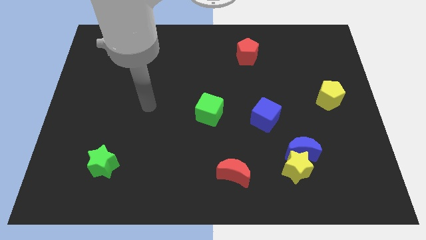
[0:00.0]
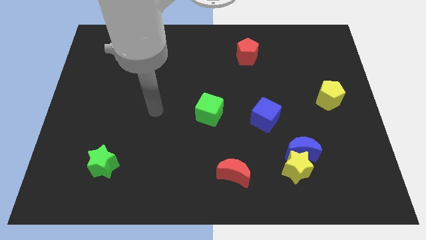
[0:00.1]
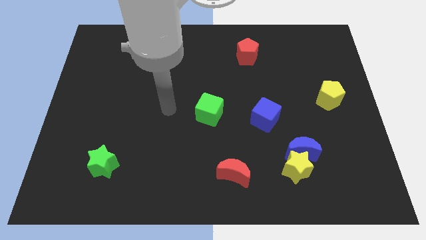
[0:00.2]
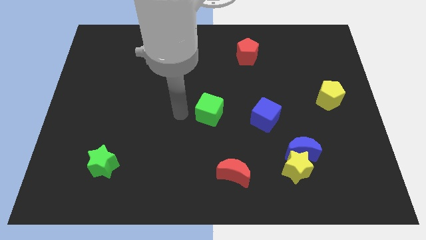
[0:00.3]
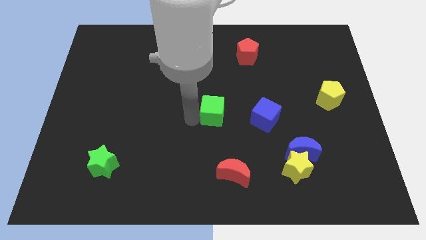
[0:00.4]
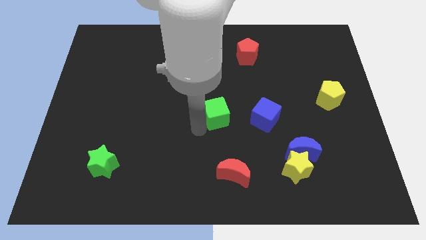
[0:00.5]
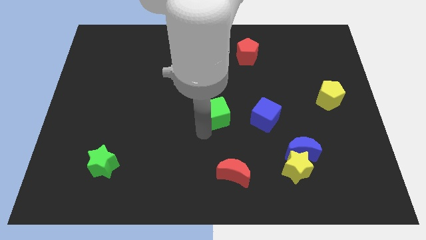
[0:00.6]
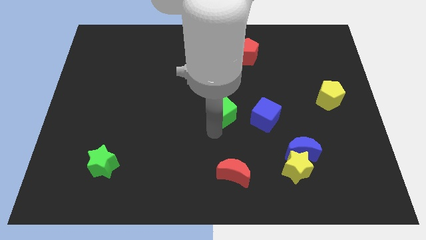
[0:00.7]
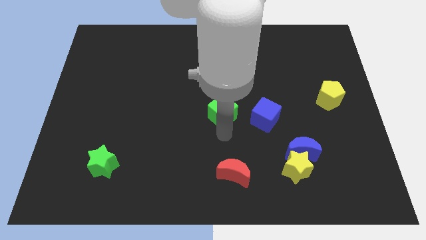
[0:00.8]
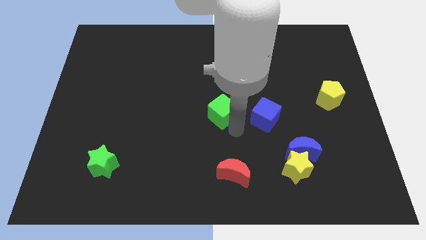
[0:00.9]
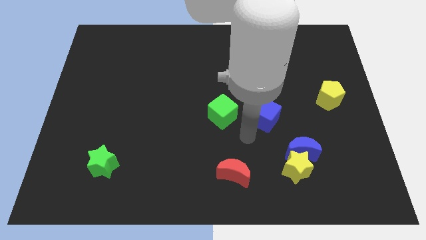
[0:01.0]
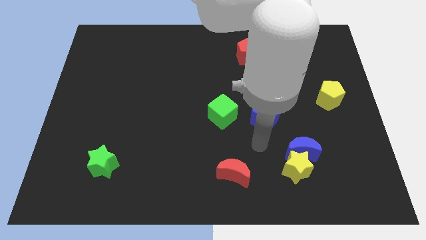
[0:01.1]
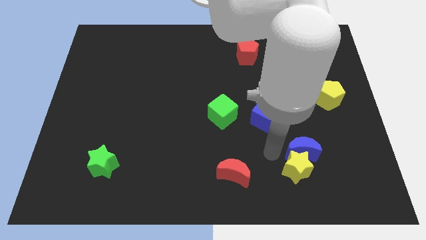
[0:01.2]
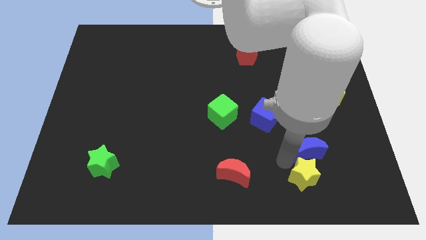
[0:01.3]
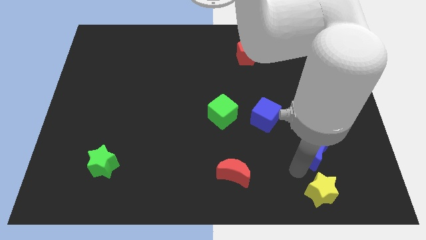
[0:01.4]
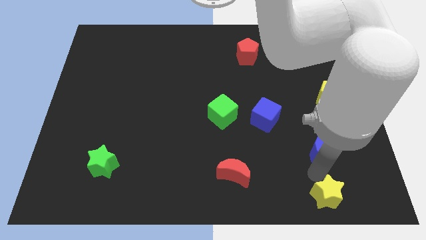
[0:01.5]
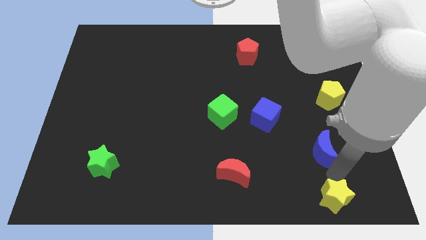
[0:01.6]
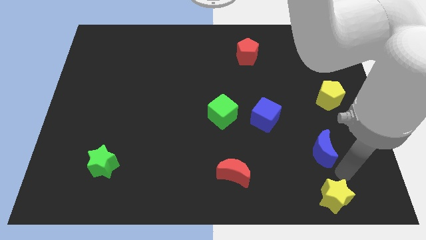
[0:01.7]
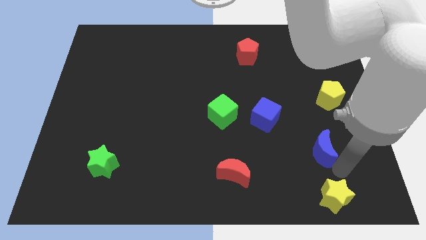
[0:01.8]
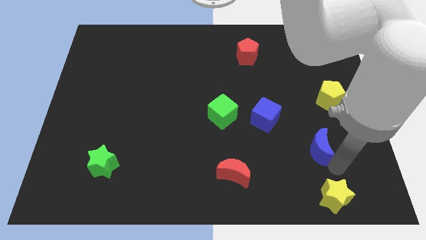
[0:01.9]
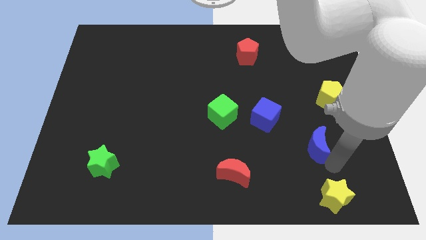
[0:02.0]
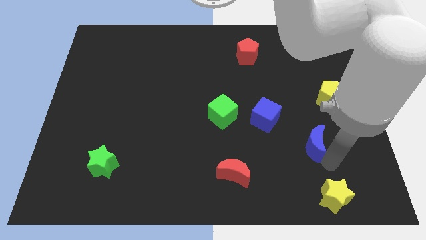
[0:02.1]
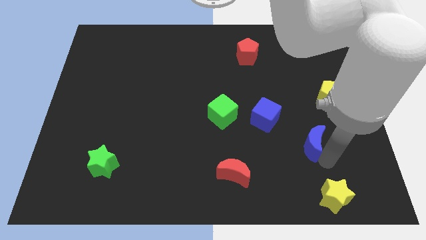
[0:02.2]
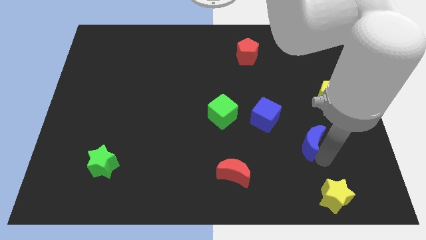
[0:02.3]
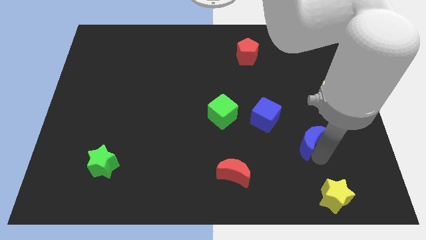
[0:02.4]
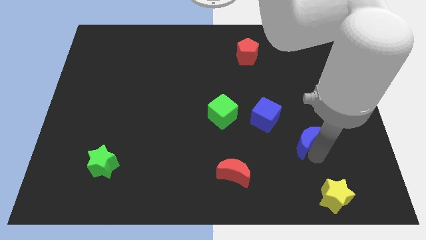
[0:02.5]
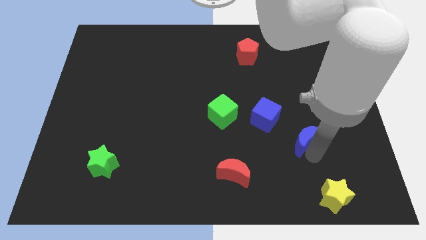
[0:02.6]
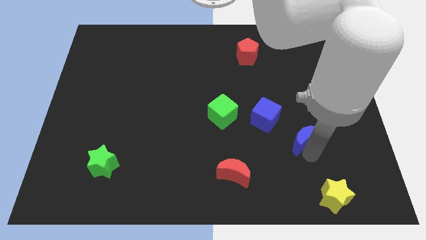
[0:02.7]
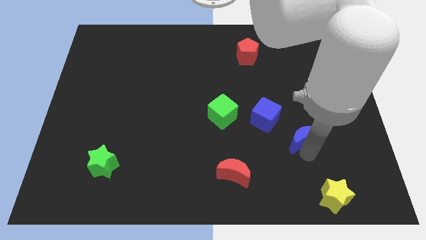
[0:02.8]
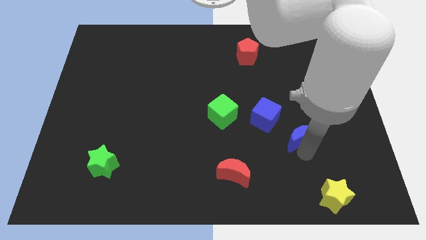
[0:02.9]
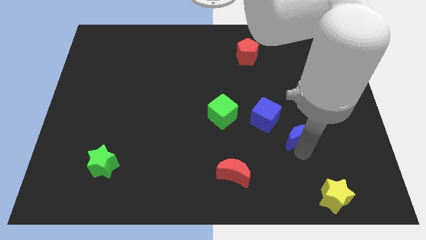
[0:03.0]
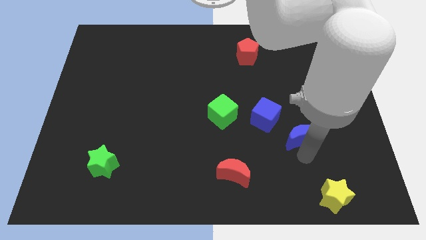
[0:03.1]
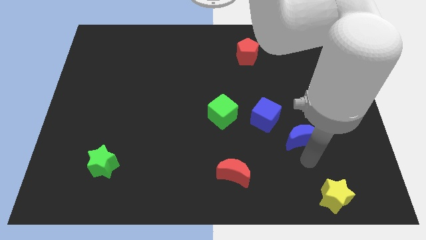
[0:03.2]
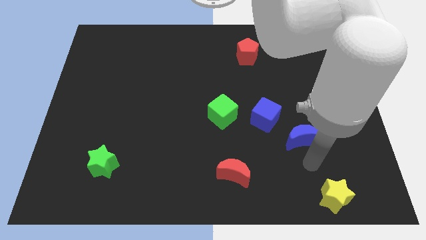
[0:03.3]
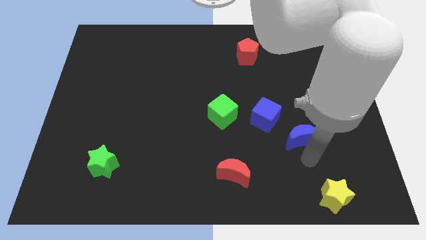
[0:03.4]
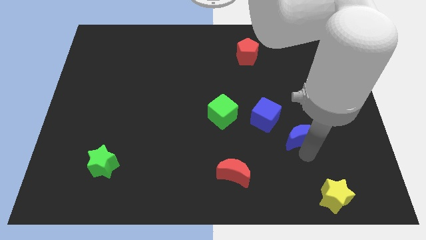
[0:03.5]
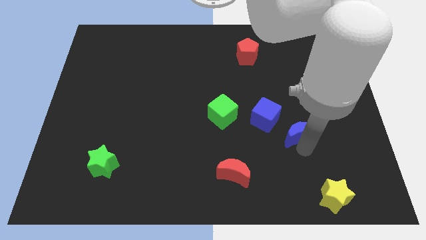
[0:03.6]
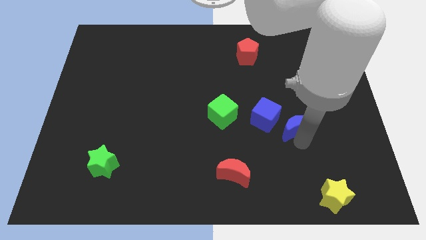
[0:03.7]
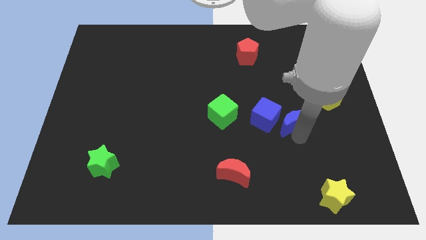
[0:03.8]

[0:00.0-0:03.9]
slide the blue moon a little upwards

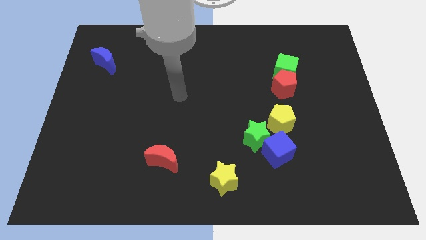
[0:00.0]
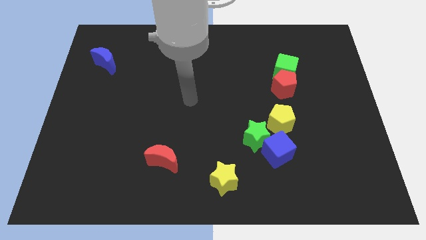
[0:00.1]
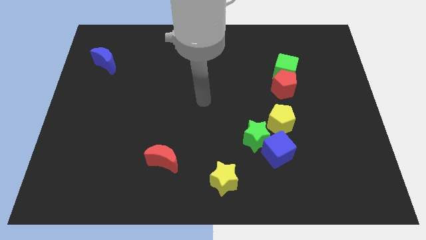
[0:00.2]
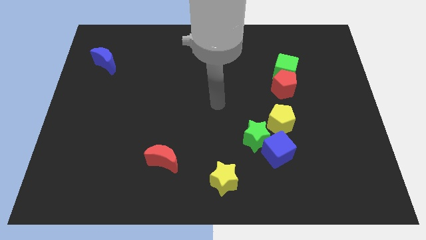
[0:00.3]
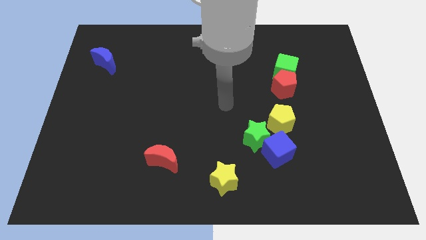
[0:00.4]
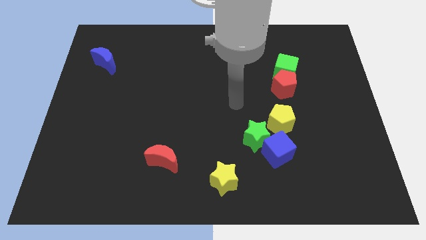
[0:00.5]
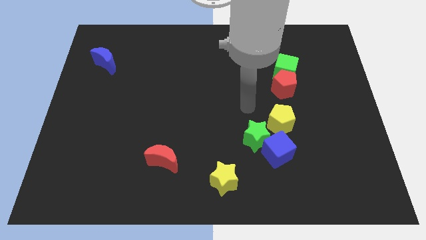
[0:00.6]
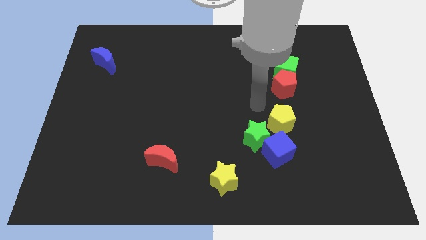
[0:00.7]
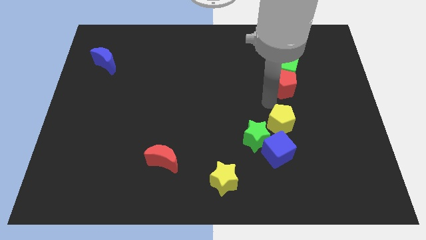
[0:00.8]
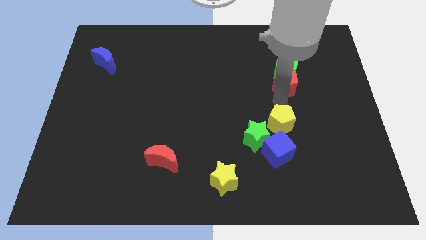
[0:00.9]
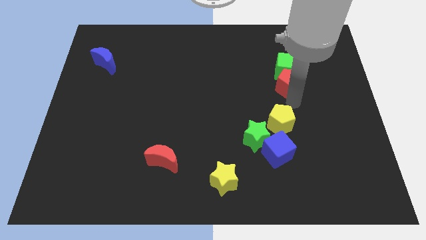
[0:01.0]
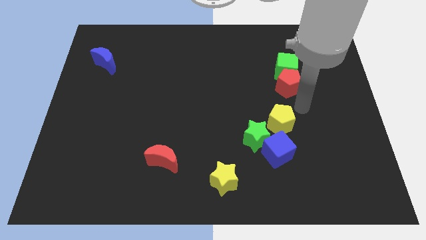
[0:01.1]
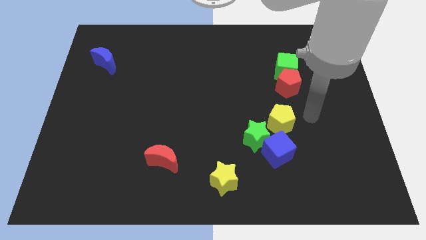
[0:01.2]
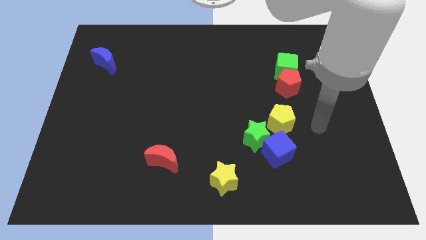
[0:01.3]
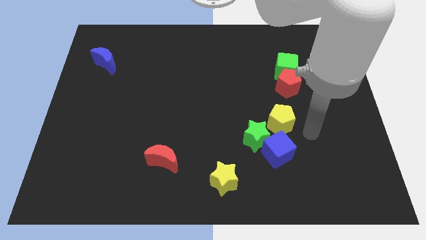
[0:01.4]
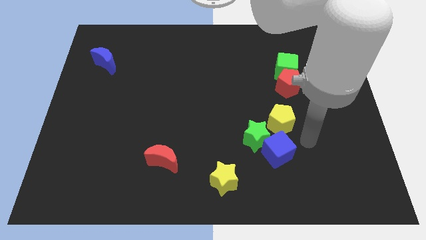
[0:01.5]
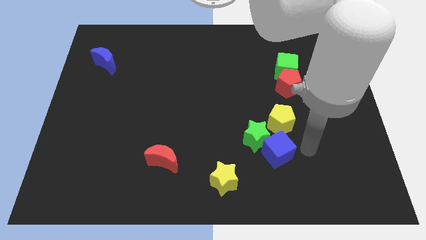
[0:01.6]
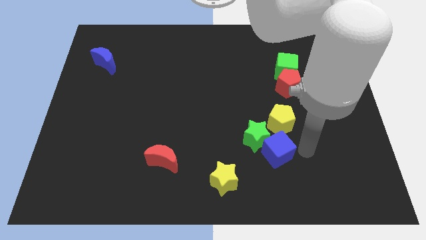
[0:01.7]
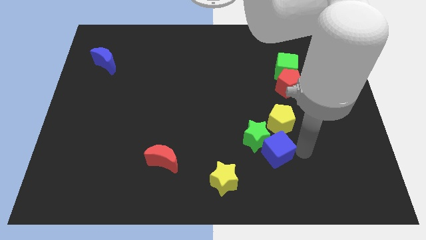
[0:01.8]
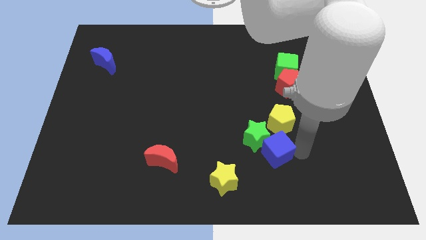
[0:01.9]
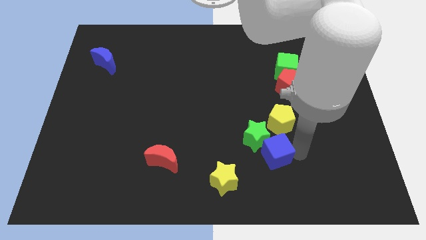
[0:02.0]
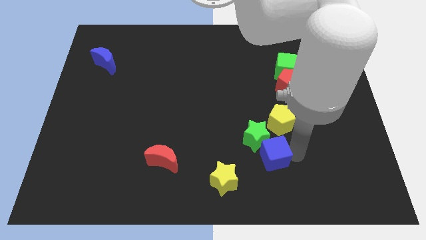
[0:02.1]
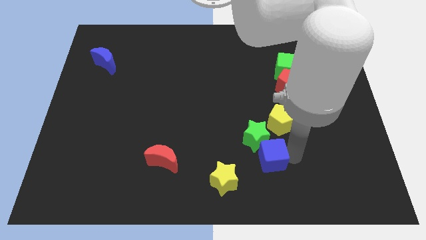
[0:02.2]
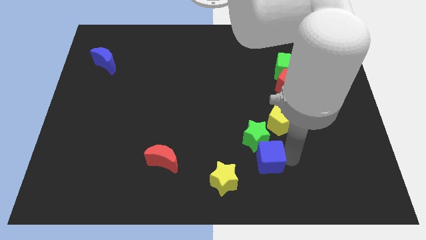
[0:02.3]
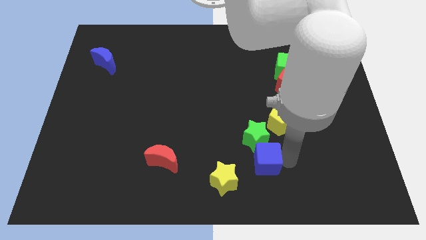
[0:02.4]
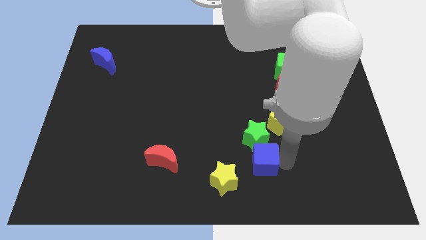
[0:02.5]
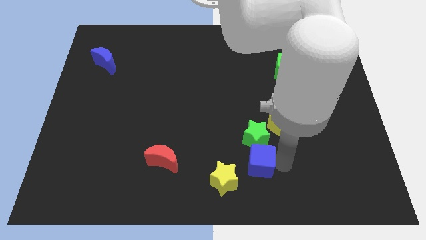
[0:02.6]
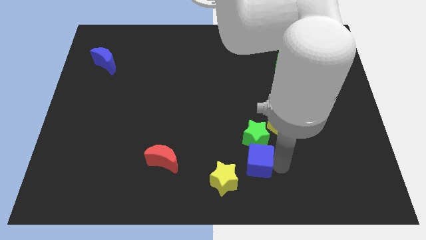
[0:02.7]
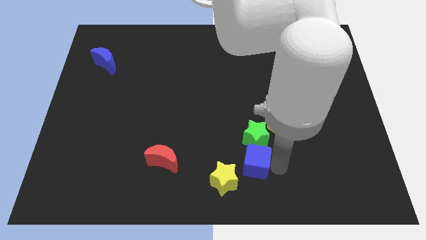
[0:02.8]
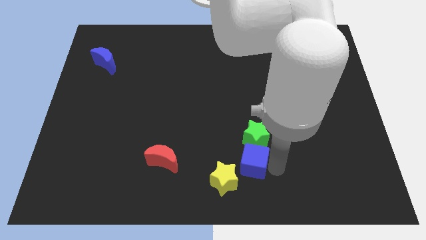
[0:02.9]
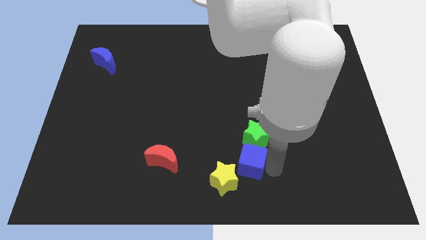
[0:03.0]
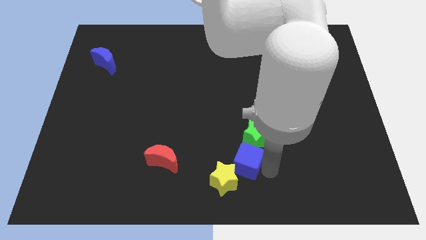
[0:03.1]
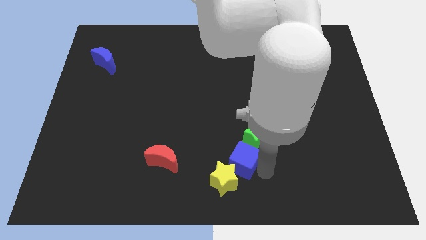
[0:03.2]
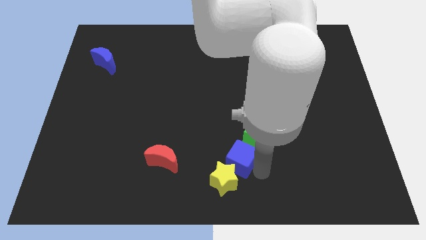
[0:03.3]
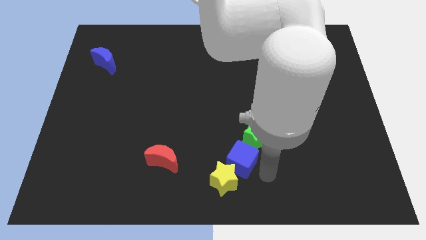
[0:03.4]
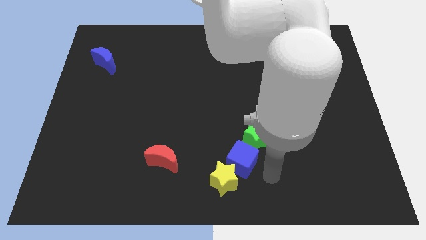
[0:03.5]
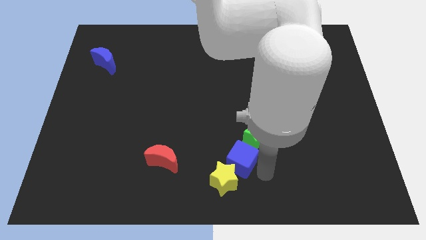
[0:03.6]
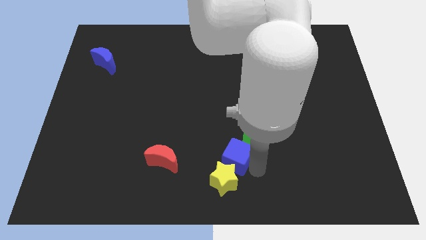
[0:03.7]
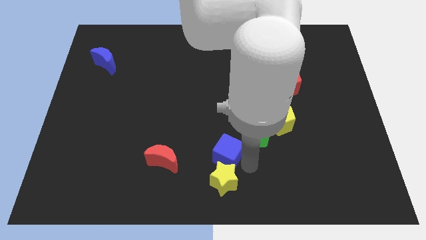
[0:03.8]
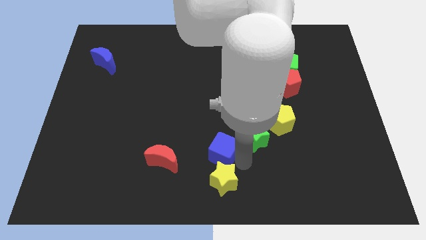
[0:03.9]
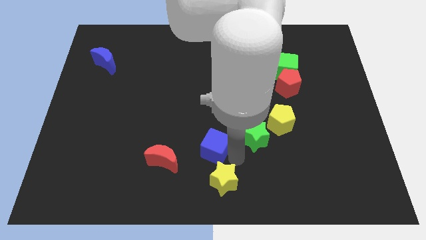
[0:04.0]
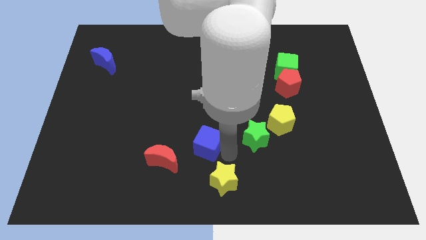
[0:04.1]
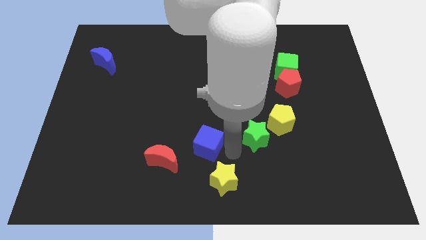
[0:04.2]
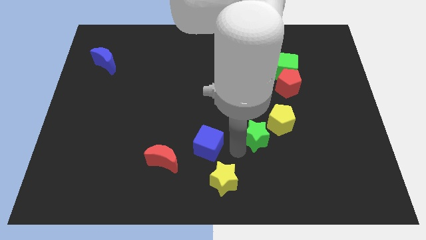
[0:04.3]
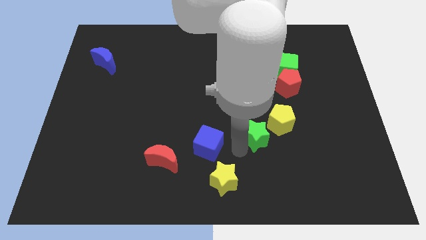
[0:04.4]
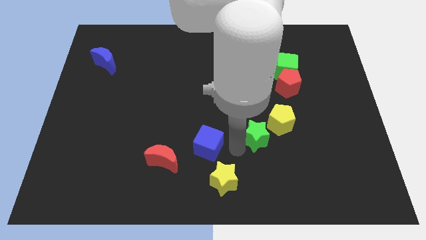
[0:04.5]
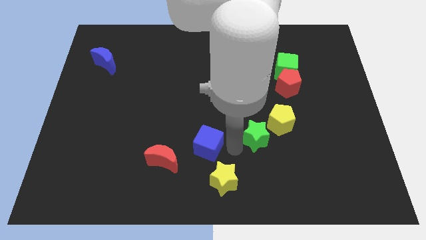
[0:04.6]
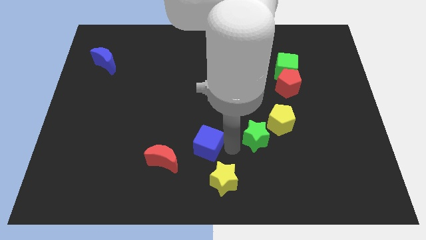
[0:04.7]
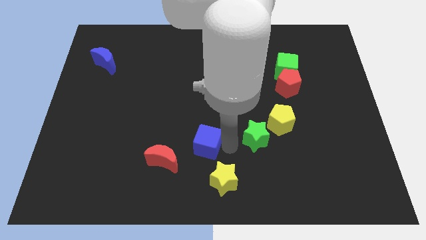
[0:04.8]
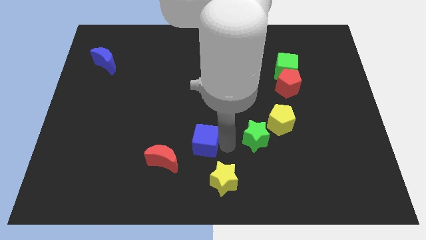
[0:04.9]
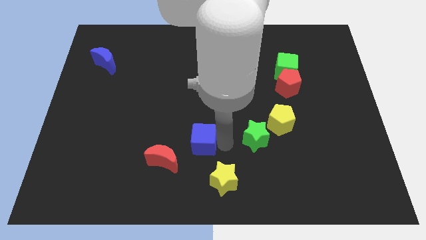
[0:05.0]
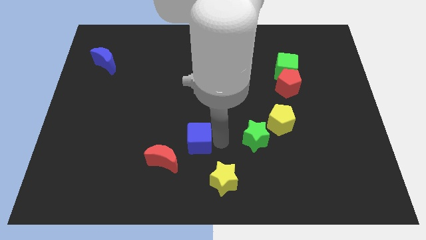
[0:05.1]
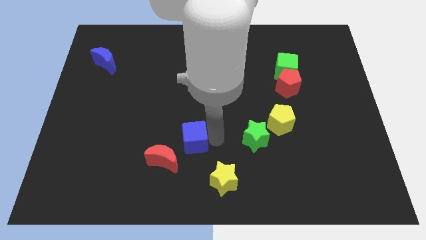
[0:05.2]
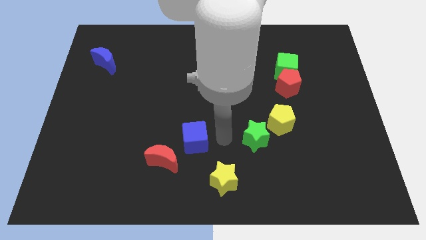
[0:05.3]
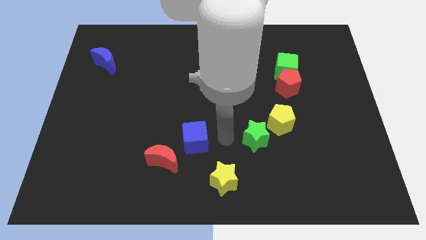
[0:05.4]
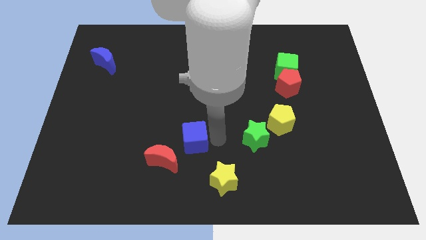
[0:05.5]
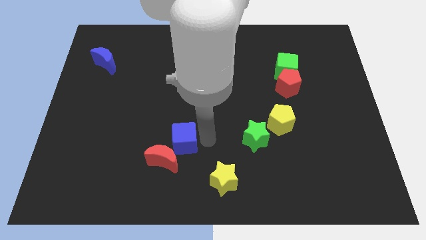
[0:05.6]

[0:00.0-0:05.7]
slide the blue cube left
